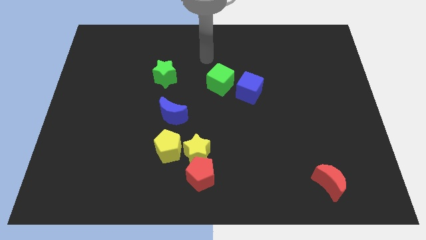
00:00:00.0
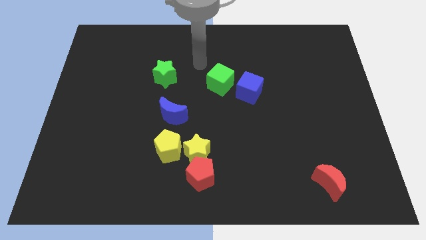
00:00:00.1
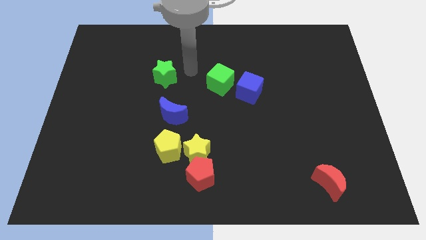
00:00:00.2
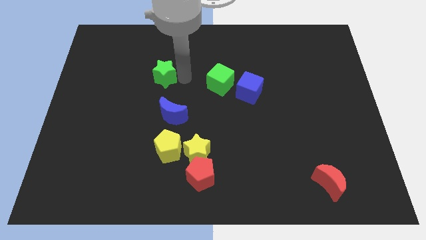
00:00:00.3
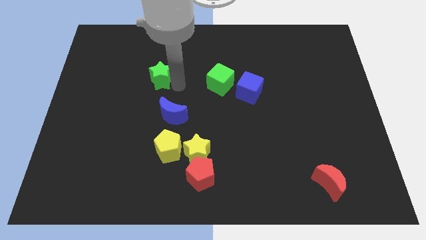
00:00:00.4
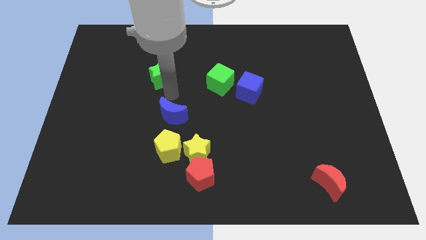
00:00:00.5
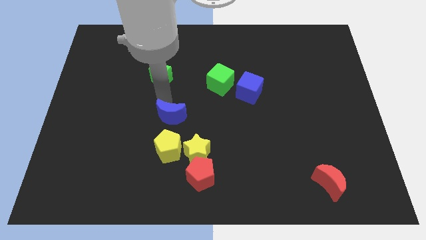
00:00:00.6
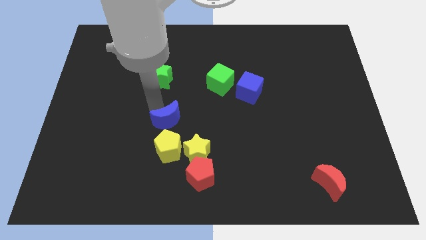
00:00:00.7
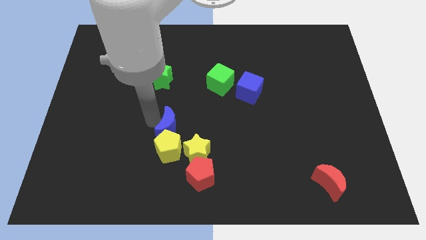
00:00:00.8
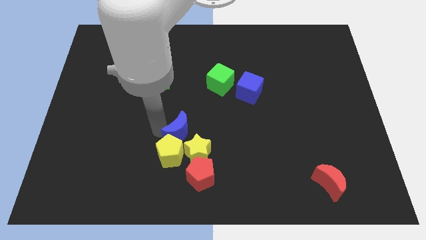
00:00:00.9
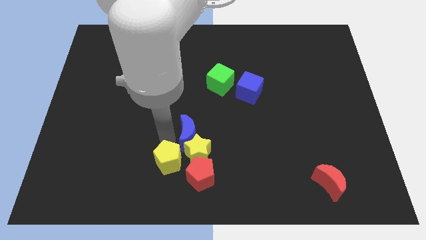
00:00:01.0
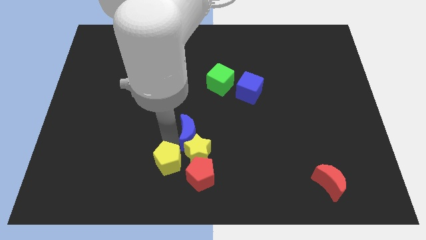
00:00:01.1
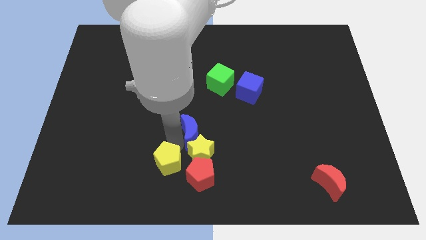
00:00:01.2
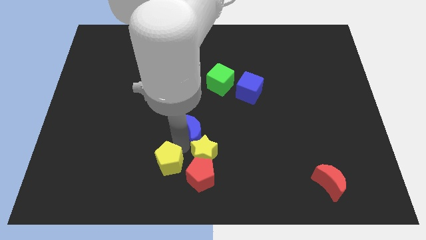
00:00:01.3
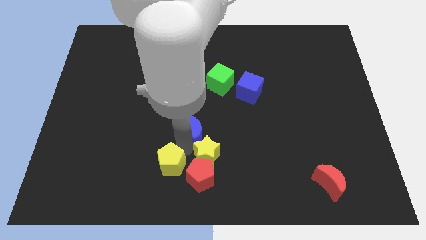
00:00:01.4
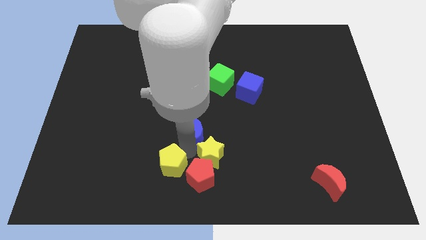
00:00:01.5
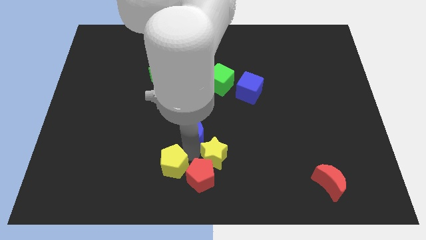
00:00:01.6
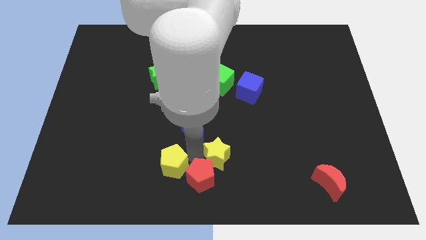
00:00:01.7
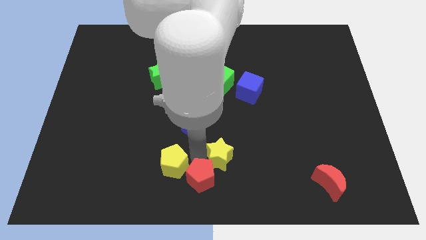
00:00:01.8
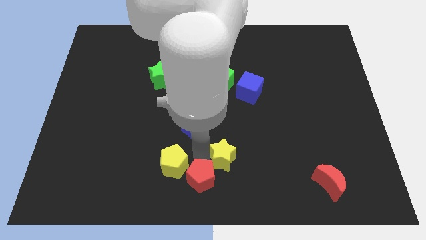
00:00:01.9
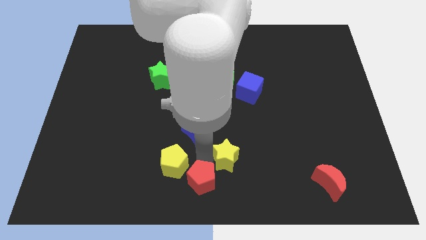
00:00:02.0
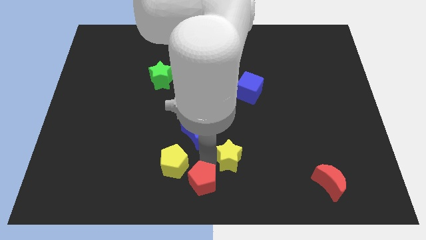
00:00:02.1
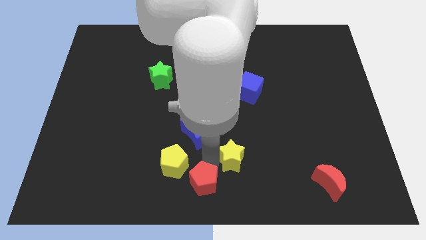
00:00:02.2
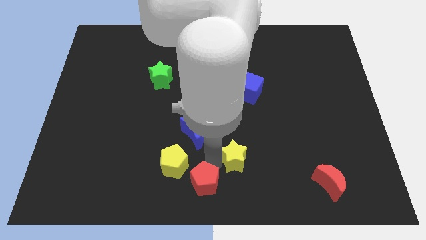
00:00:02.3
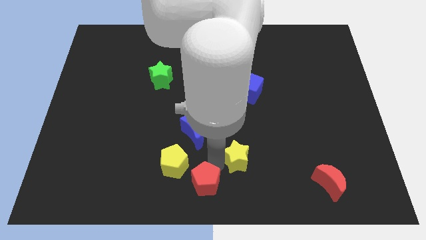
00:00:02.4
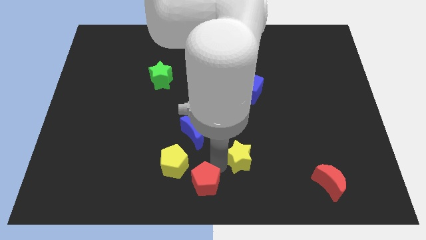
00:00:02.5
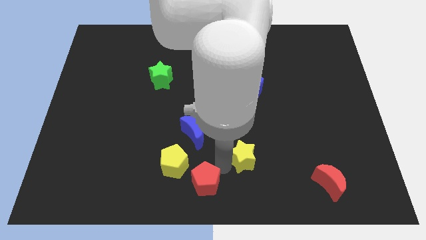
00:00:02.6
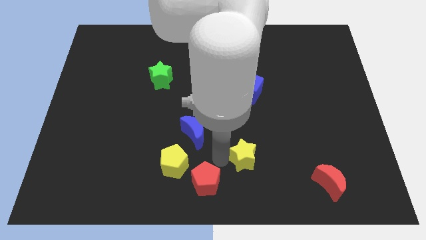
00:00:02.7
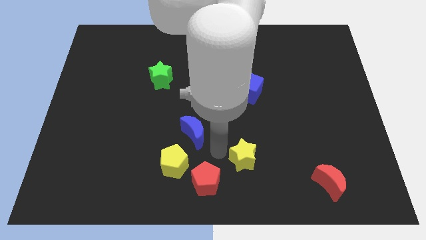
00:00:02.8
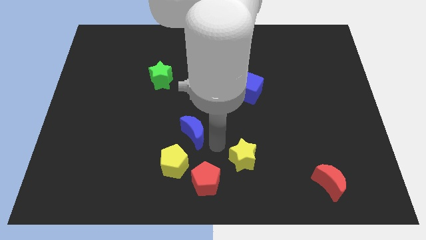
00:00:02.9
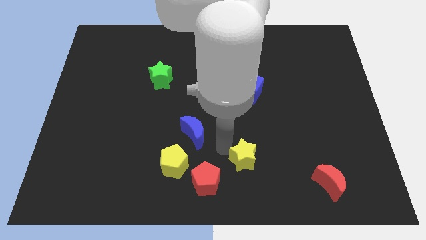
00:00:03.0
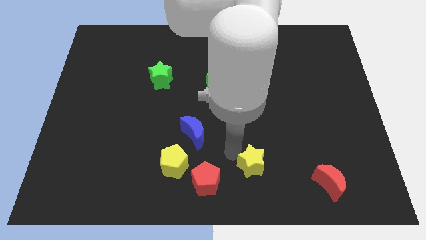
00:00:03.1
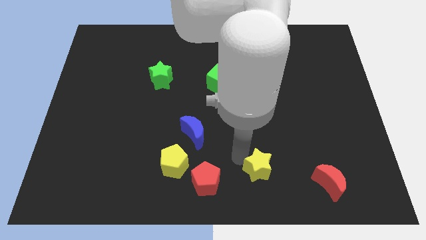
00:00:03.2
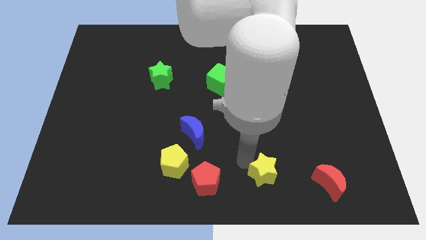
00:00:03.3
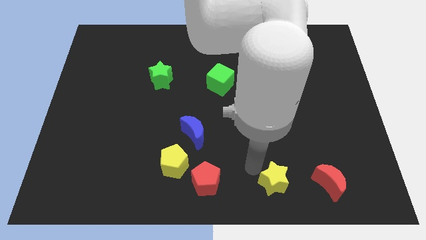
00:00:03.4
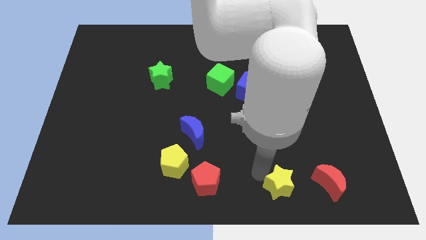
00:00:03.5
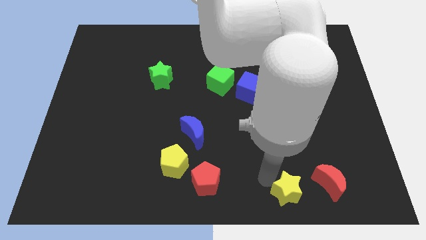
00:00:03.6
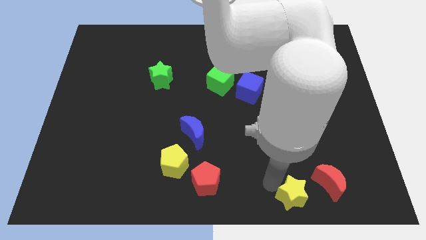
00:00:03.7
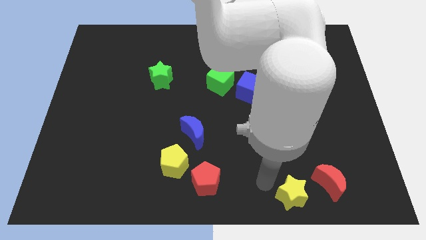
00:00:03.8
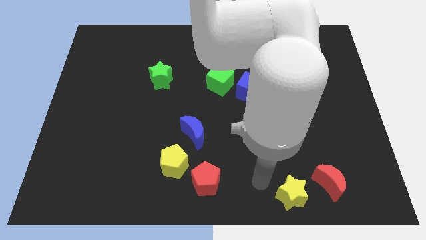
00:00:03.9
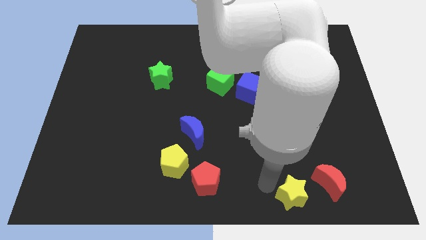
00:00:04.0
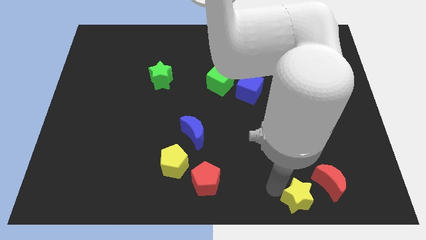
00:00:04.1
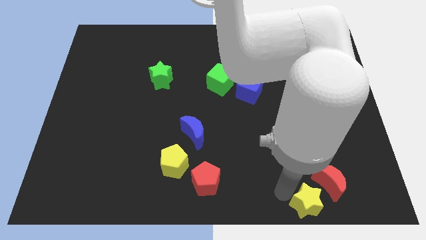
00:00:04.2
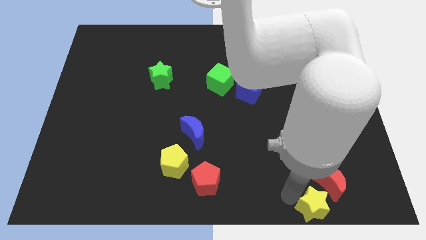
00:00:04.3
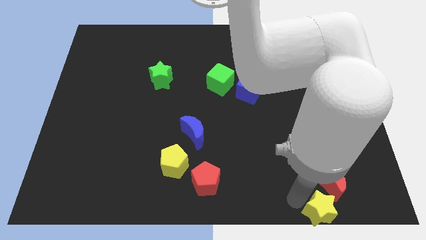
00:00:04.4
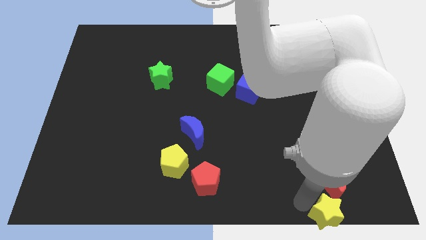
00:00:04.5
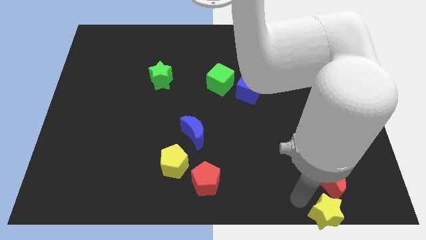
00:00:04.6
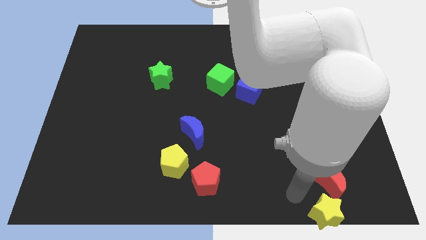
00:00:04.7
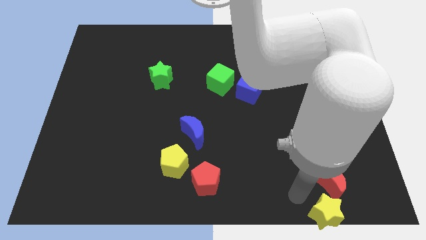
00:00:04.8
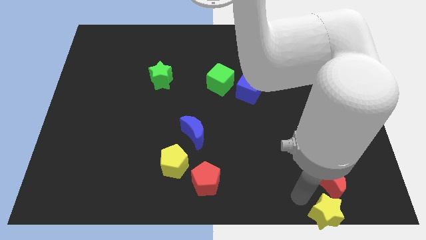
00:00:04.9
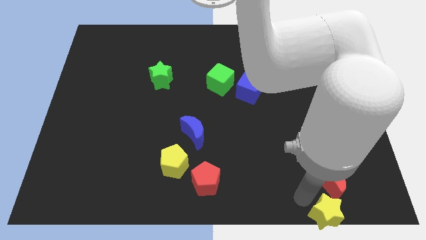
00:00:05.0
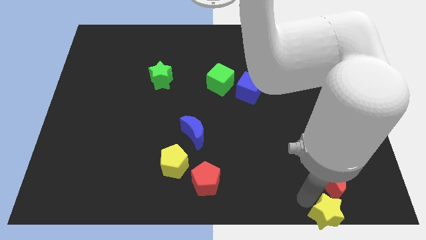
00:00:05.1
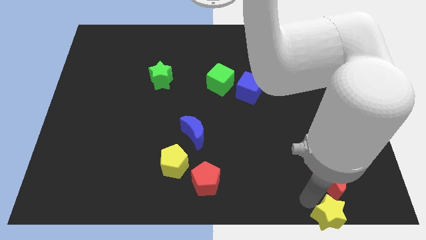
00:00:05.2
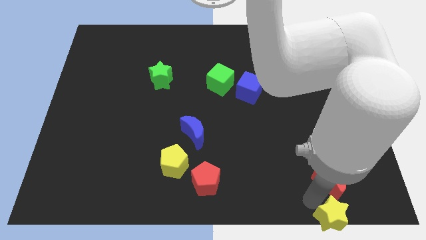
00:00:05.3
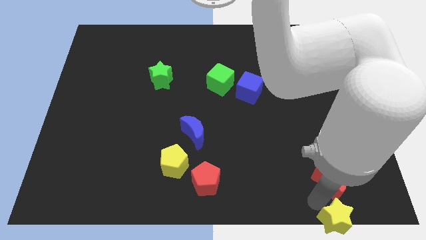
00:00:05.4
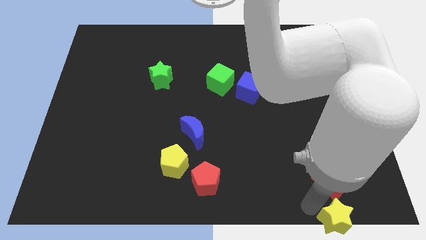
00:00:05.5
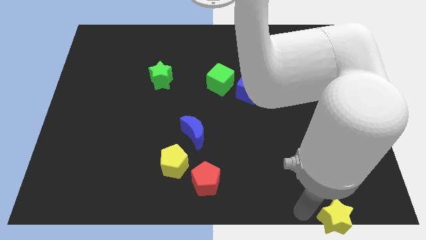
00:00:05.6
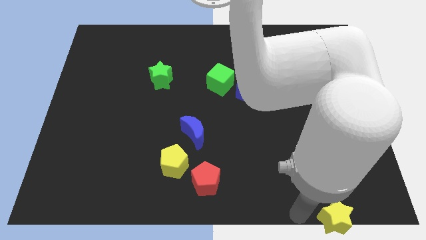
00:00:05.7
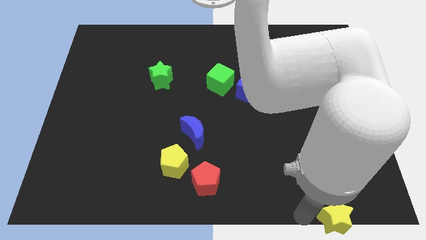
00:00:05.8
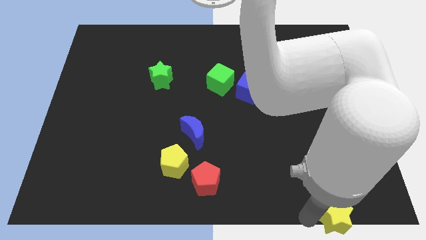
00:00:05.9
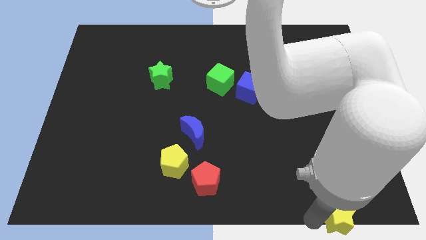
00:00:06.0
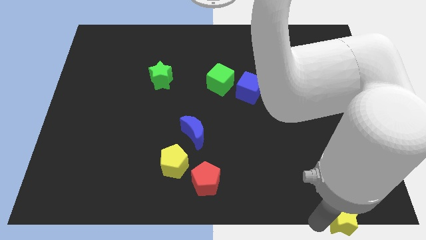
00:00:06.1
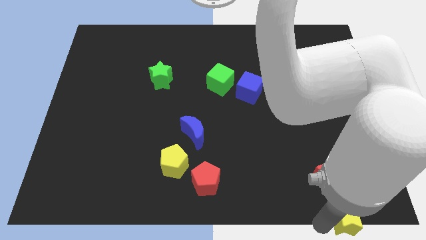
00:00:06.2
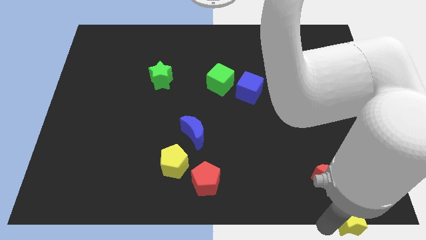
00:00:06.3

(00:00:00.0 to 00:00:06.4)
slide the yellow star to the lower right corner

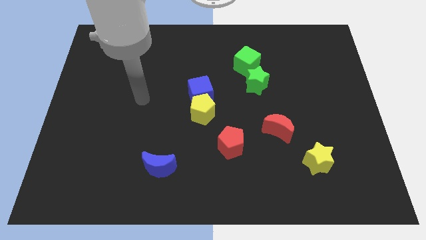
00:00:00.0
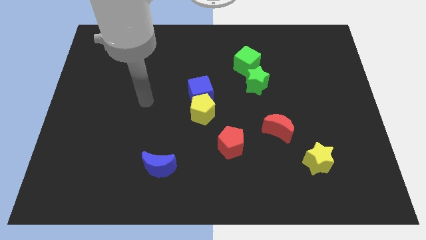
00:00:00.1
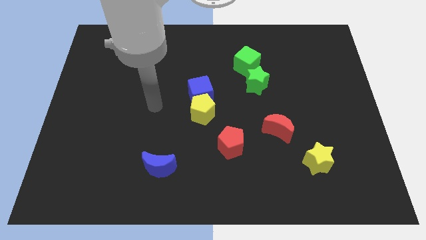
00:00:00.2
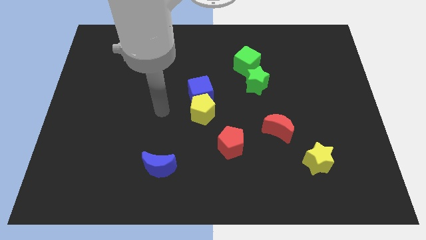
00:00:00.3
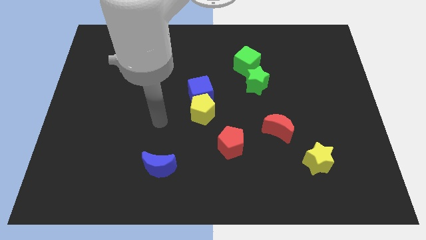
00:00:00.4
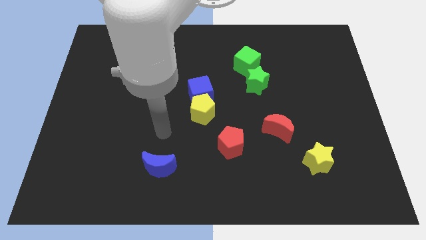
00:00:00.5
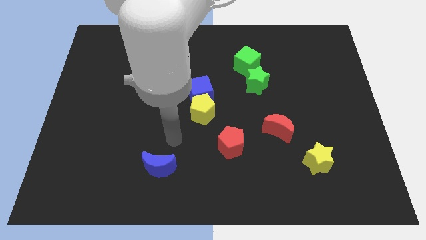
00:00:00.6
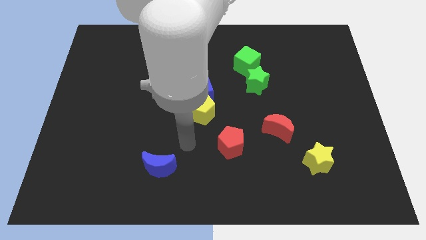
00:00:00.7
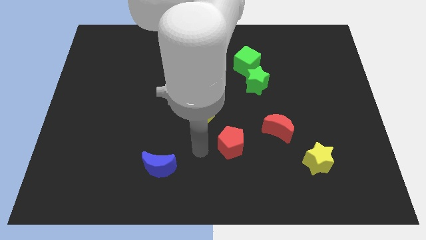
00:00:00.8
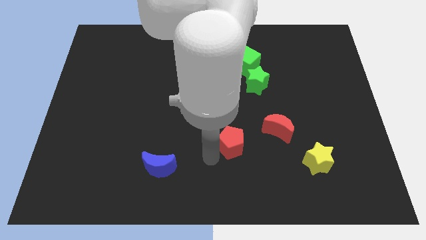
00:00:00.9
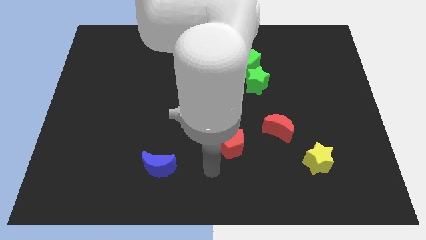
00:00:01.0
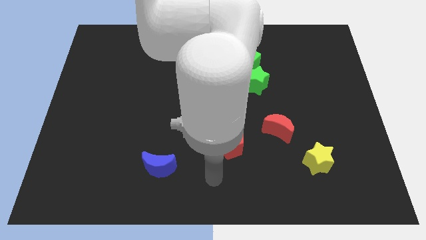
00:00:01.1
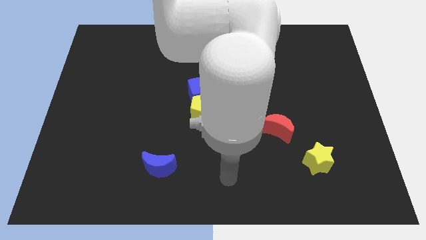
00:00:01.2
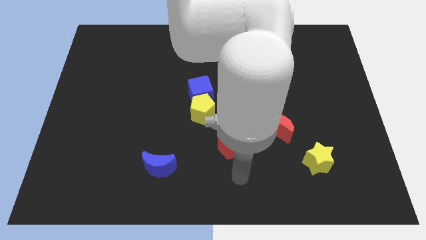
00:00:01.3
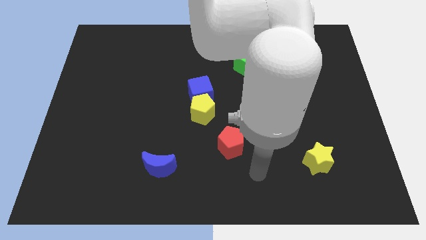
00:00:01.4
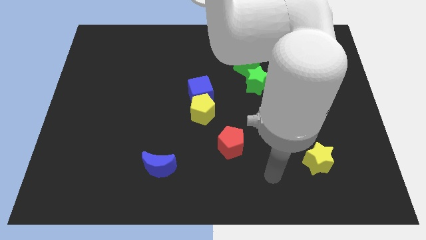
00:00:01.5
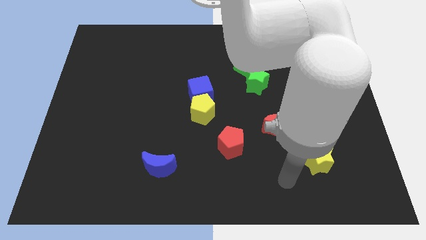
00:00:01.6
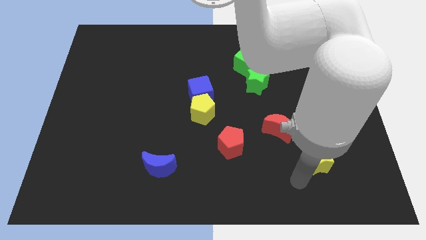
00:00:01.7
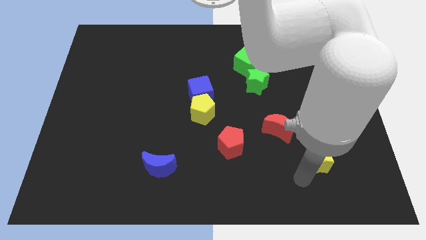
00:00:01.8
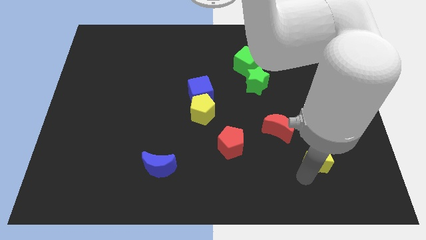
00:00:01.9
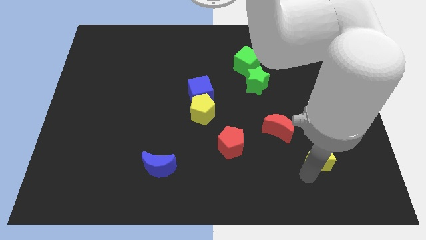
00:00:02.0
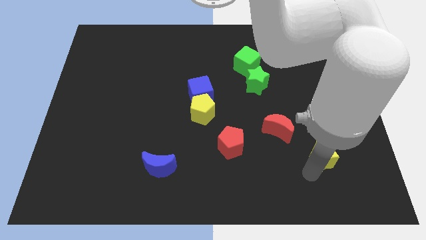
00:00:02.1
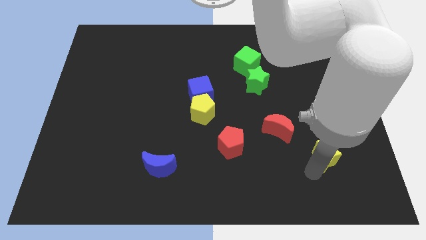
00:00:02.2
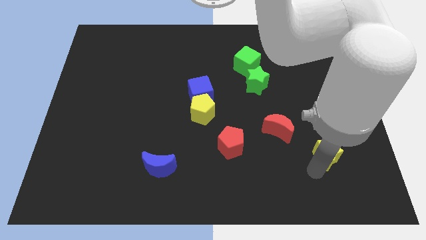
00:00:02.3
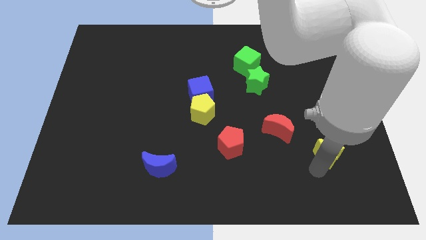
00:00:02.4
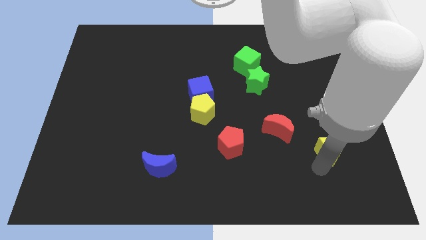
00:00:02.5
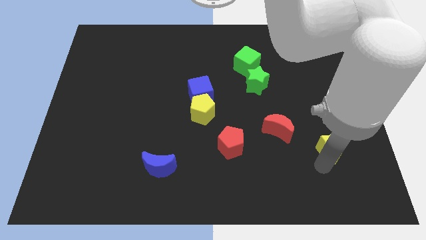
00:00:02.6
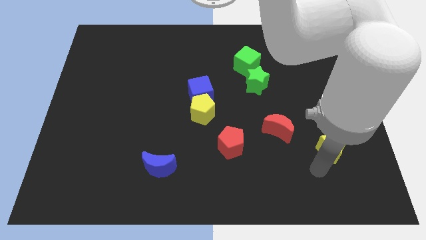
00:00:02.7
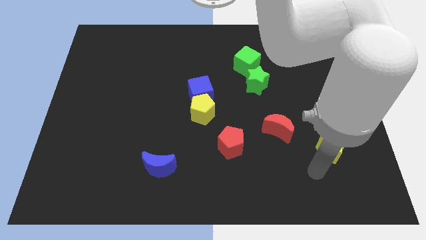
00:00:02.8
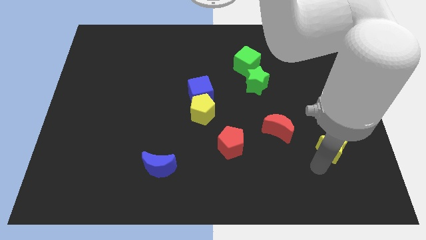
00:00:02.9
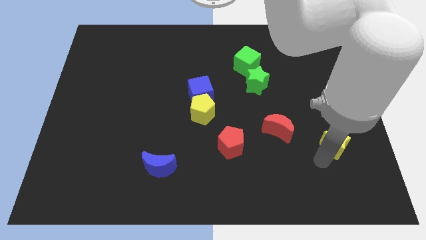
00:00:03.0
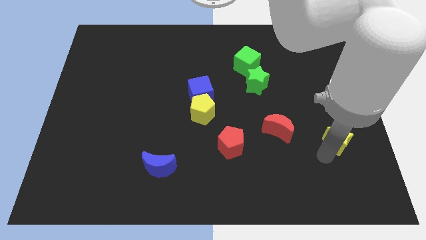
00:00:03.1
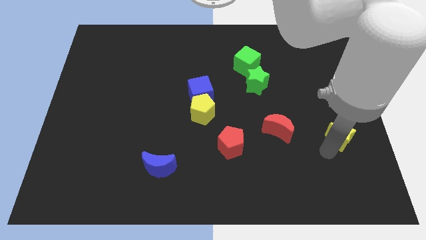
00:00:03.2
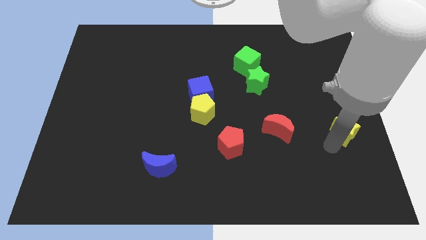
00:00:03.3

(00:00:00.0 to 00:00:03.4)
move the yellow star to the right side of the board
